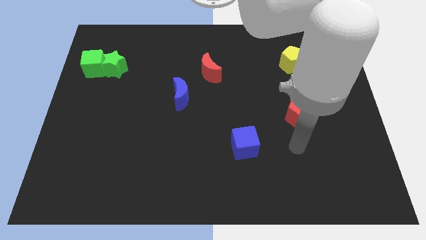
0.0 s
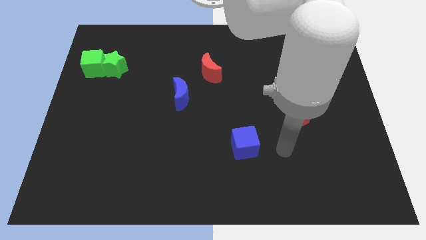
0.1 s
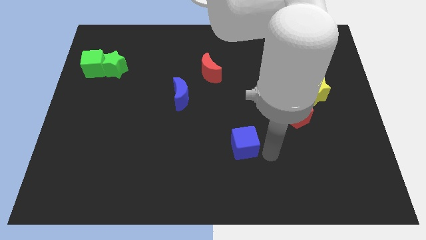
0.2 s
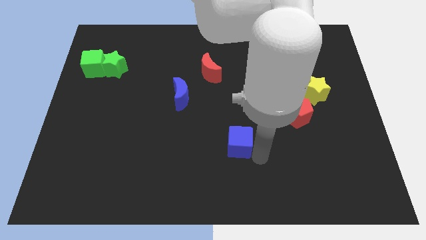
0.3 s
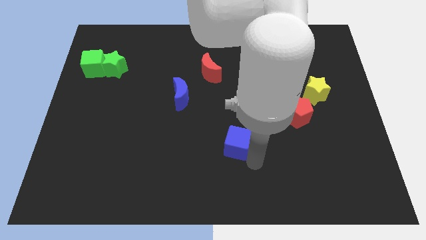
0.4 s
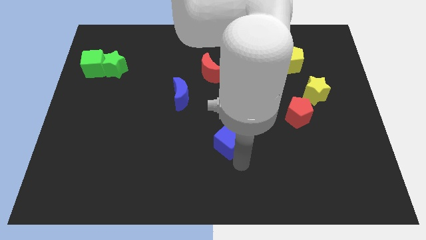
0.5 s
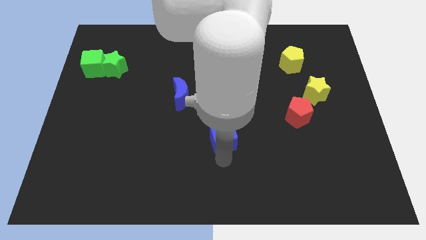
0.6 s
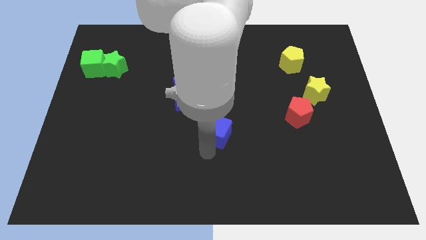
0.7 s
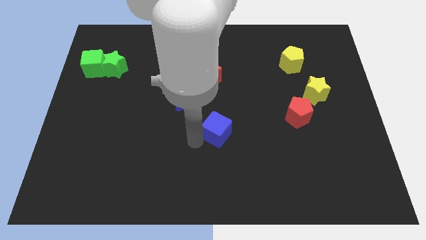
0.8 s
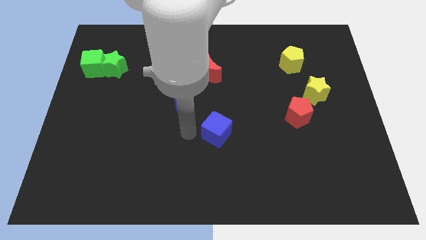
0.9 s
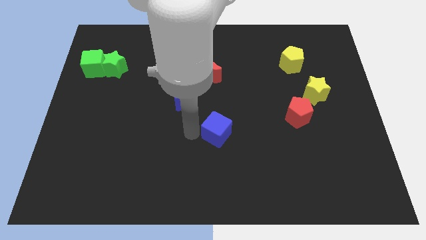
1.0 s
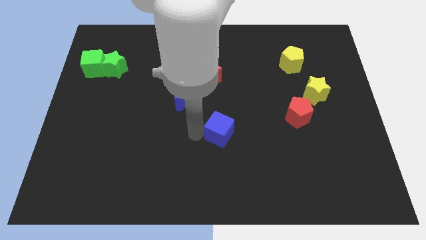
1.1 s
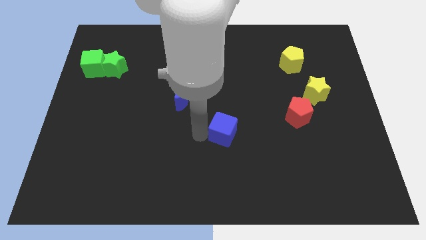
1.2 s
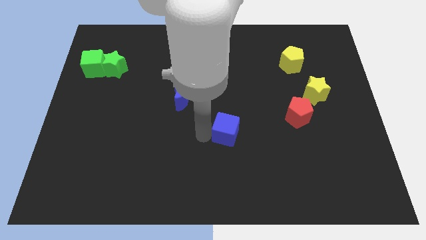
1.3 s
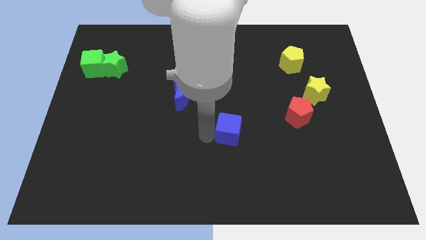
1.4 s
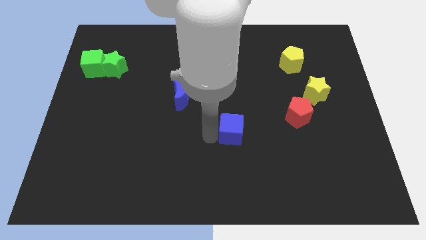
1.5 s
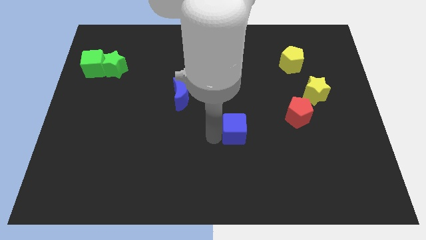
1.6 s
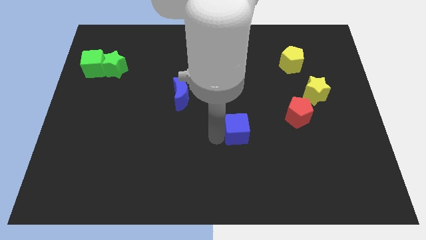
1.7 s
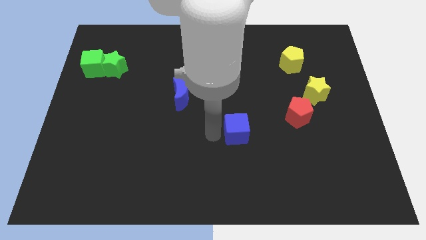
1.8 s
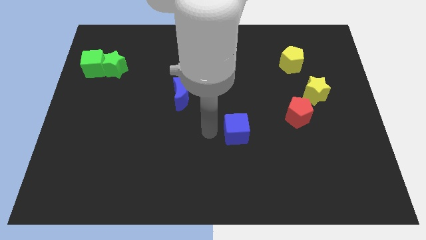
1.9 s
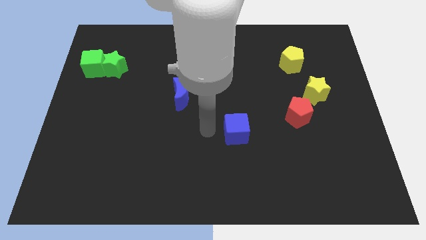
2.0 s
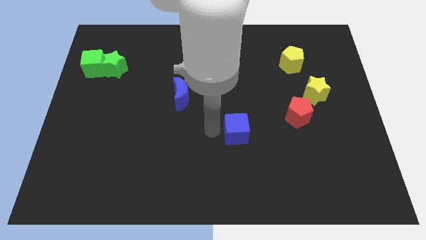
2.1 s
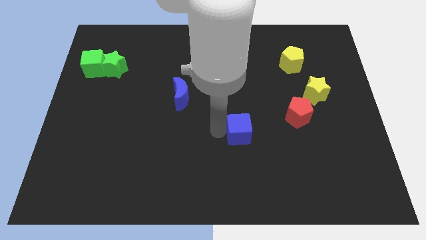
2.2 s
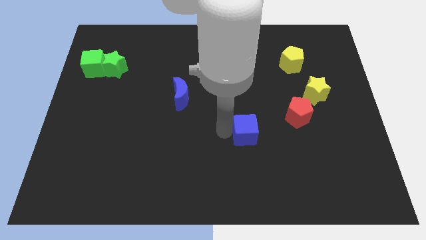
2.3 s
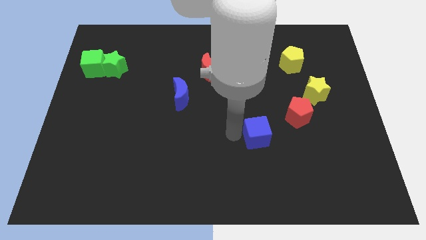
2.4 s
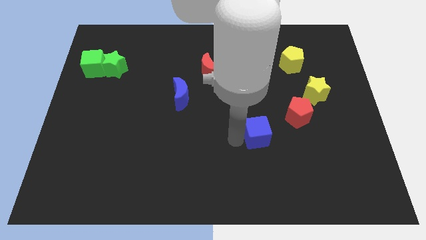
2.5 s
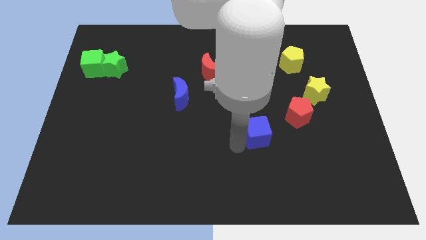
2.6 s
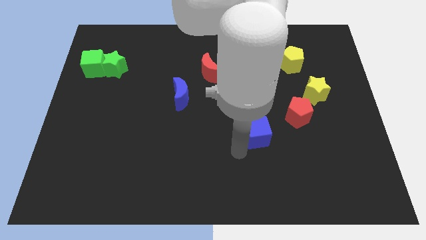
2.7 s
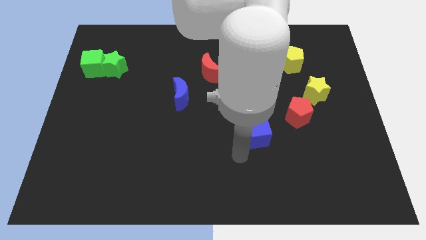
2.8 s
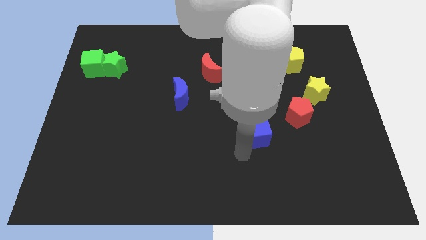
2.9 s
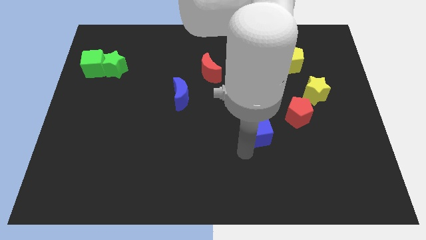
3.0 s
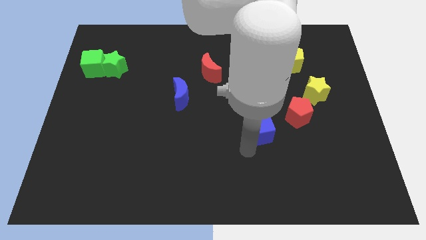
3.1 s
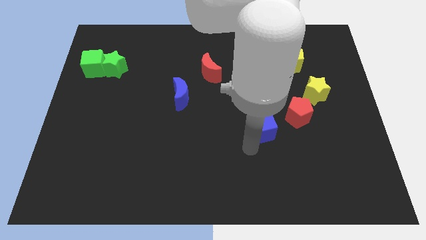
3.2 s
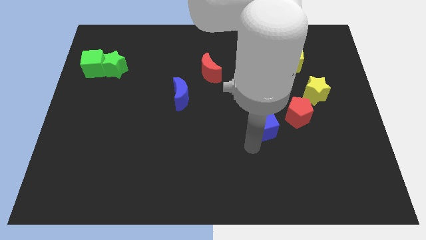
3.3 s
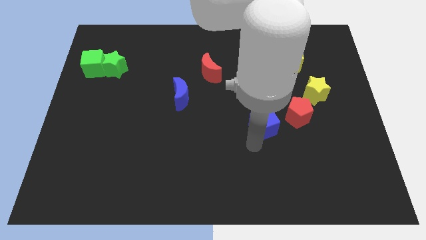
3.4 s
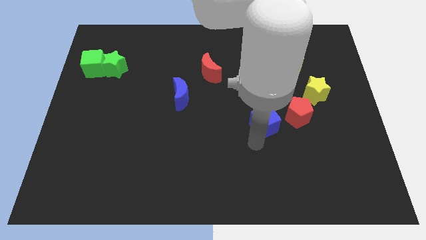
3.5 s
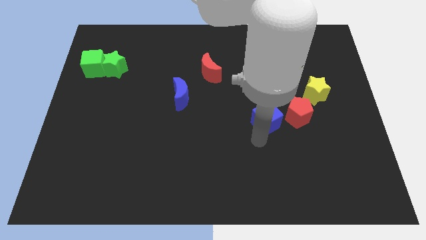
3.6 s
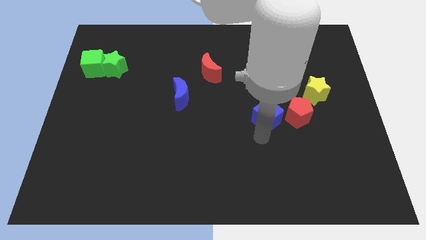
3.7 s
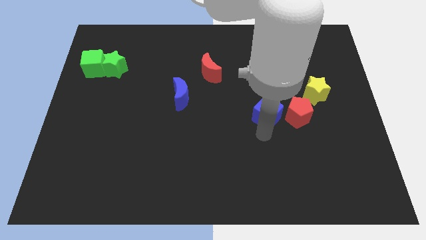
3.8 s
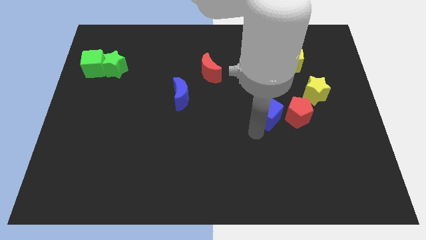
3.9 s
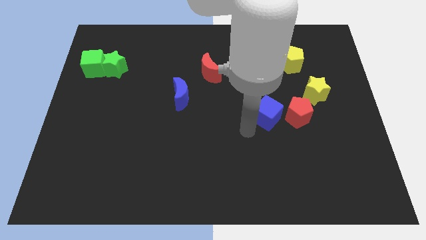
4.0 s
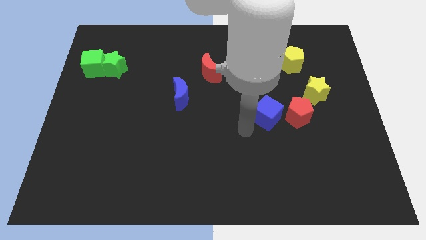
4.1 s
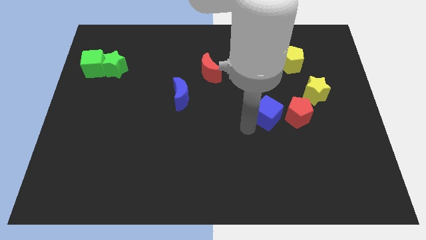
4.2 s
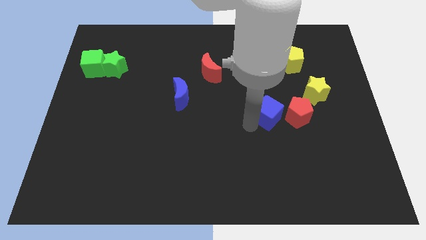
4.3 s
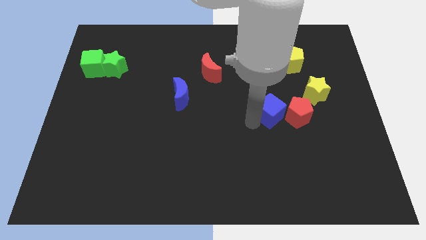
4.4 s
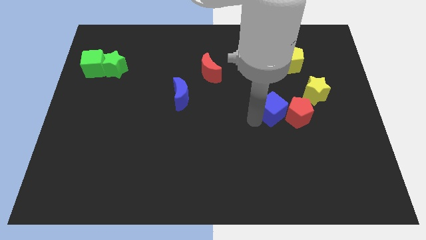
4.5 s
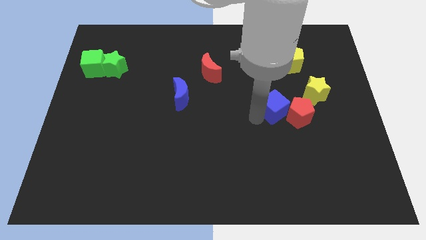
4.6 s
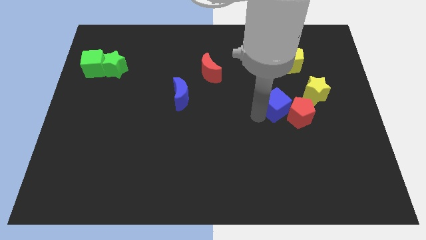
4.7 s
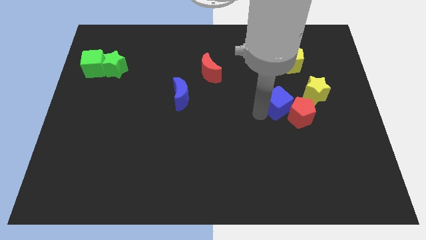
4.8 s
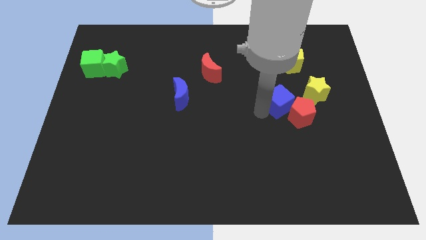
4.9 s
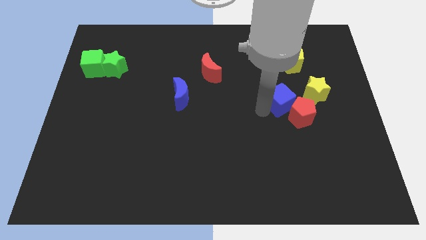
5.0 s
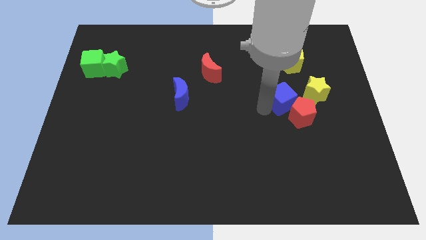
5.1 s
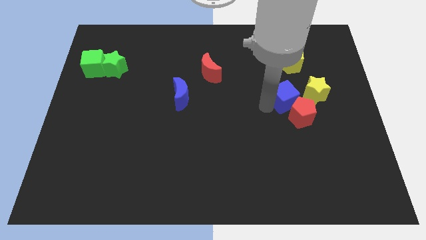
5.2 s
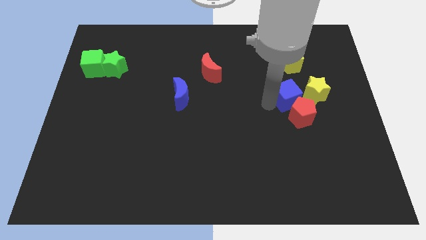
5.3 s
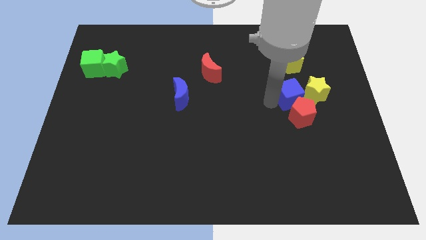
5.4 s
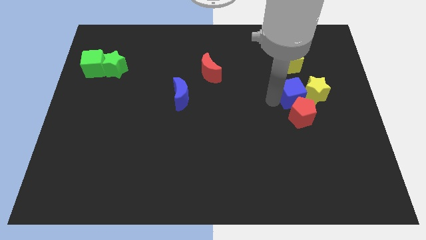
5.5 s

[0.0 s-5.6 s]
push the blue cube towards the yellow star

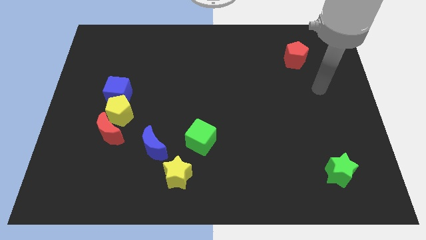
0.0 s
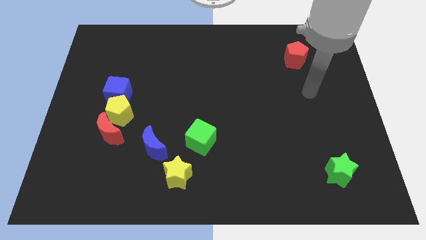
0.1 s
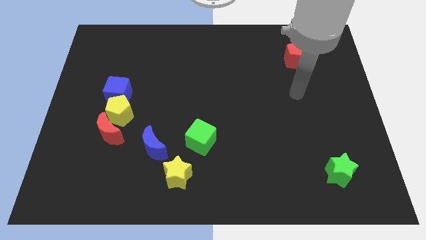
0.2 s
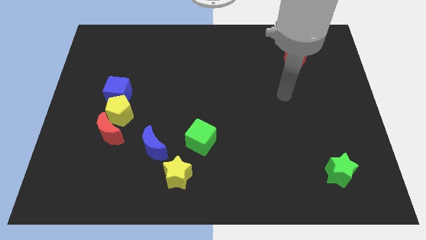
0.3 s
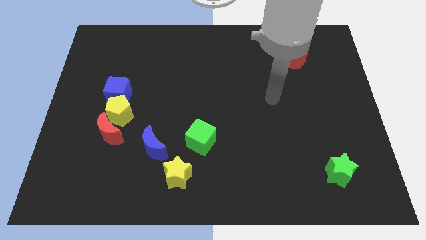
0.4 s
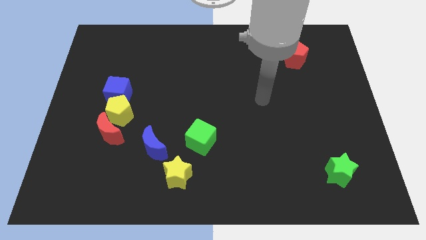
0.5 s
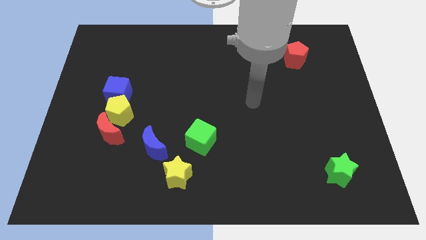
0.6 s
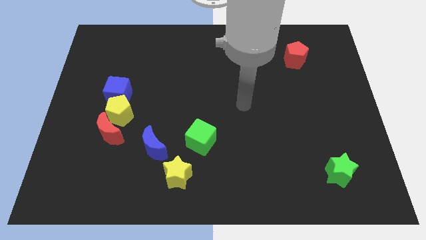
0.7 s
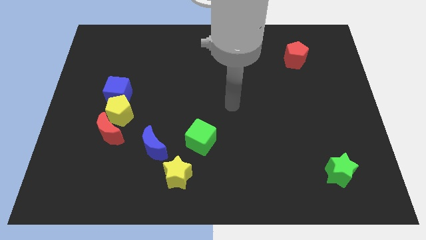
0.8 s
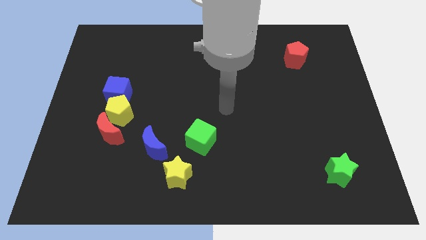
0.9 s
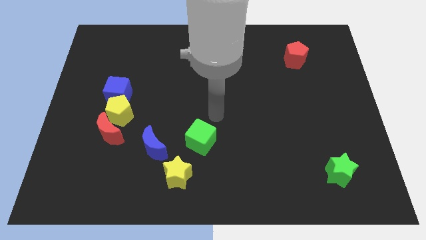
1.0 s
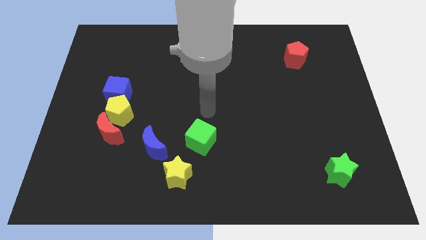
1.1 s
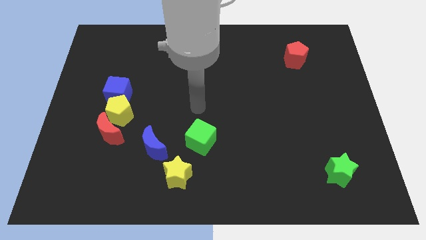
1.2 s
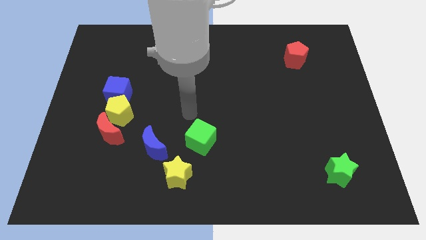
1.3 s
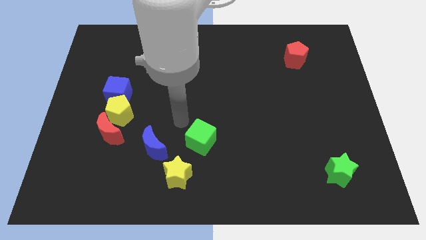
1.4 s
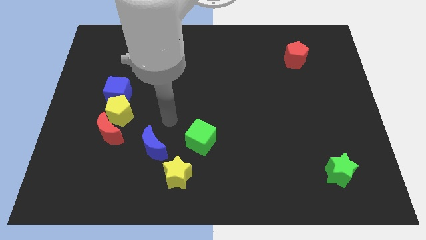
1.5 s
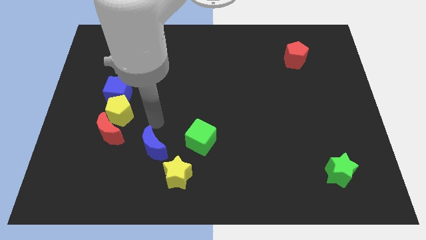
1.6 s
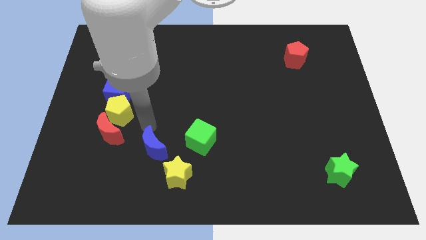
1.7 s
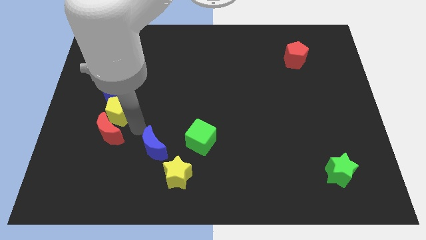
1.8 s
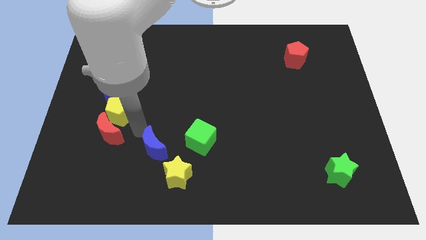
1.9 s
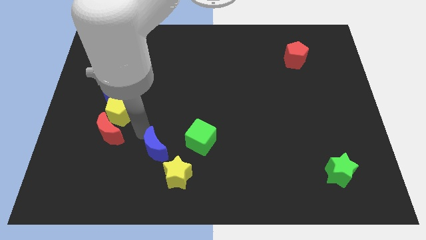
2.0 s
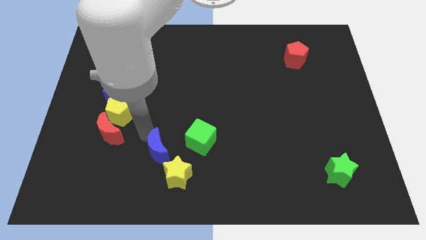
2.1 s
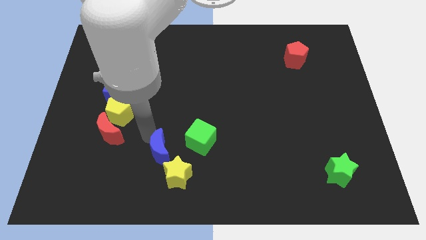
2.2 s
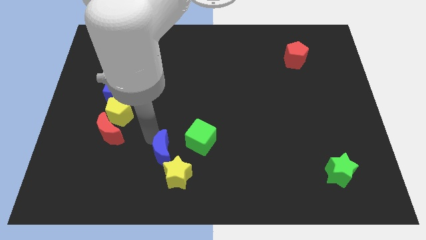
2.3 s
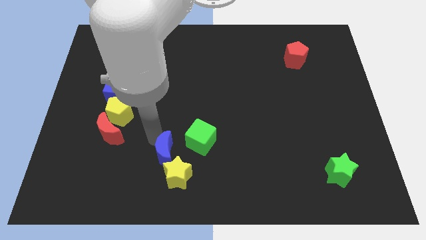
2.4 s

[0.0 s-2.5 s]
push the blue moon to the yellow star

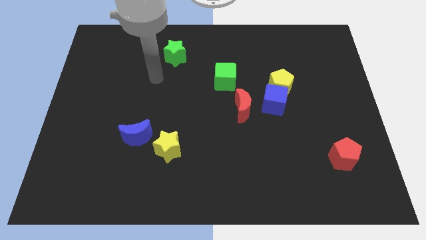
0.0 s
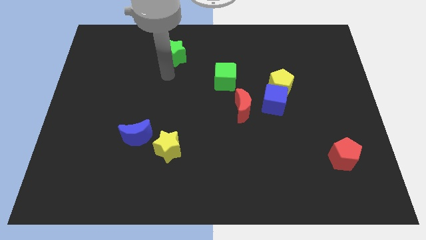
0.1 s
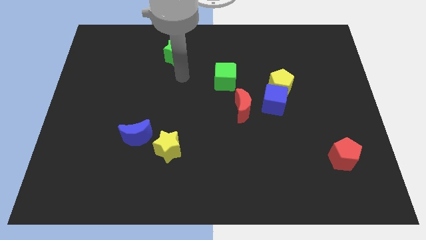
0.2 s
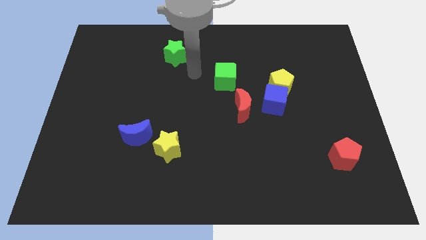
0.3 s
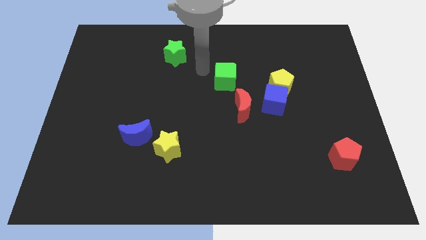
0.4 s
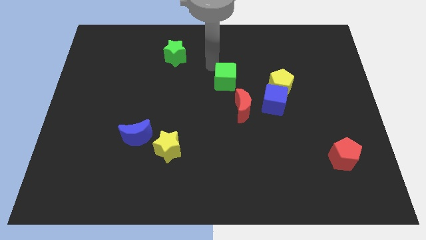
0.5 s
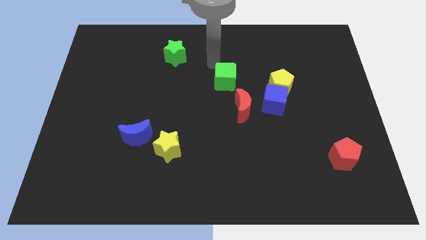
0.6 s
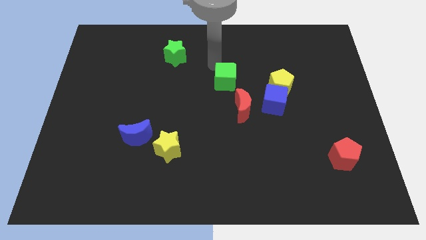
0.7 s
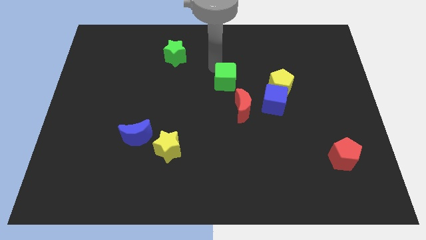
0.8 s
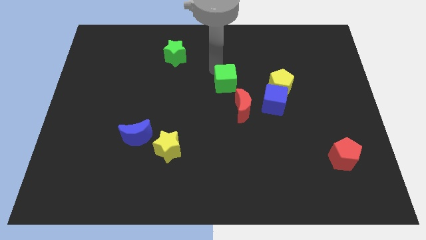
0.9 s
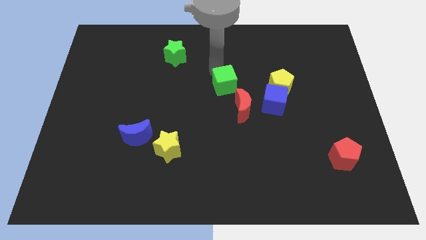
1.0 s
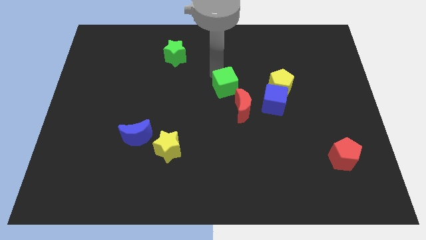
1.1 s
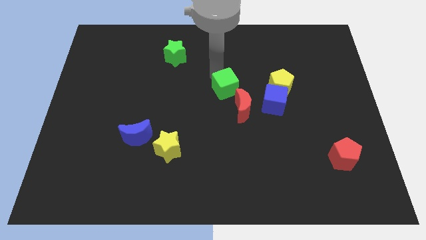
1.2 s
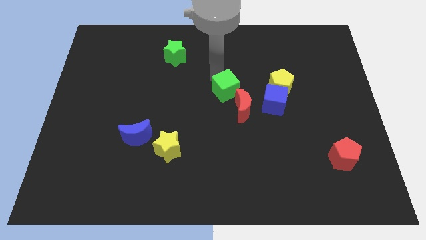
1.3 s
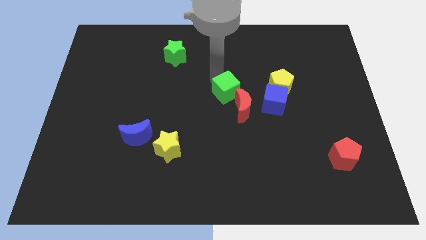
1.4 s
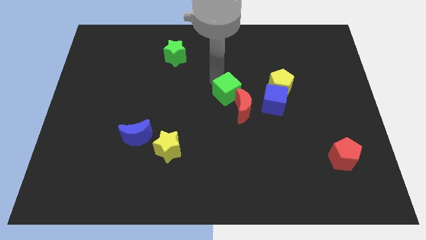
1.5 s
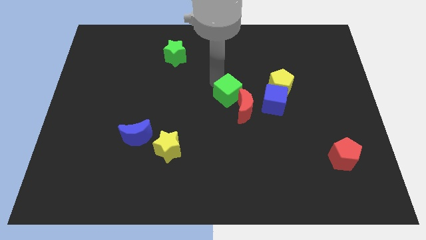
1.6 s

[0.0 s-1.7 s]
slide the green cube towards the red moon
